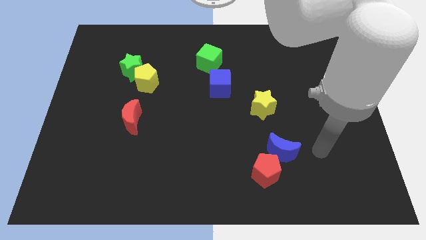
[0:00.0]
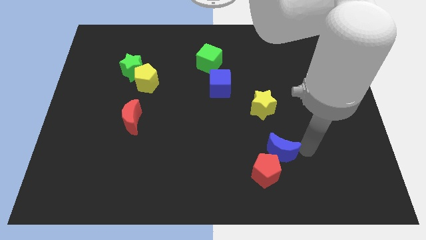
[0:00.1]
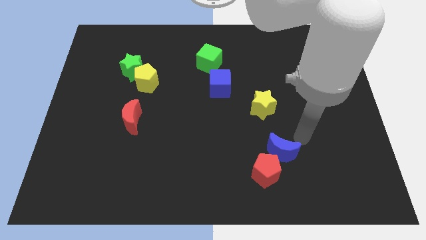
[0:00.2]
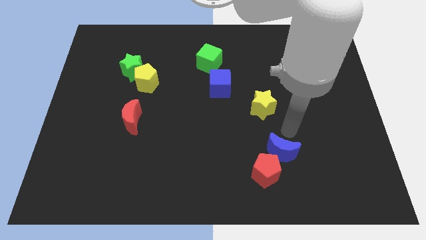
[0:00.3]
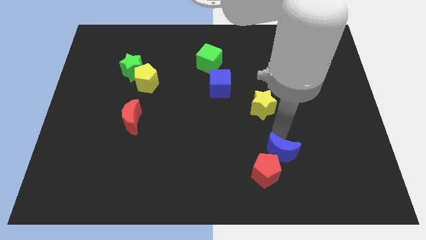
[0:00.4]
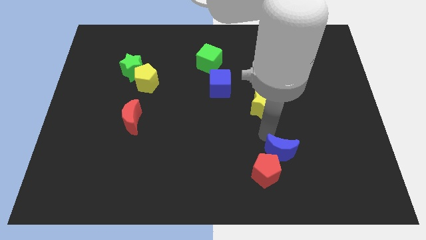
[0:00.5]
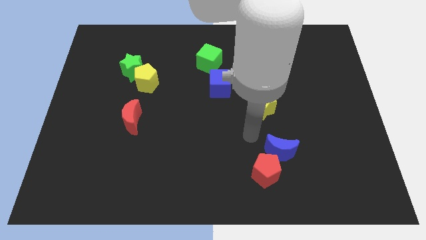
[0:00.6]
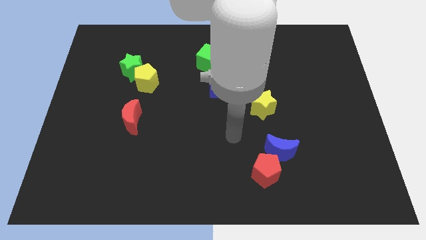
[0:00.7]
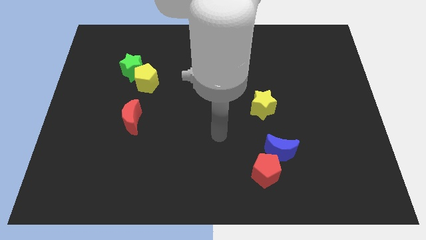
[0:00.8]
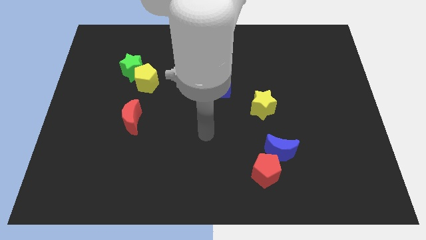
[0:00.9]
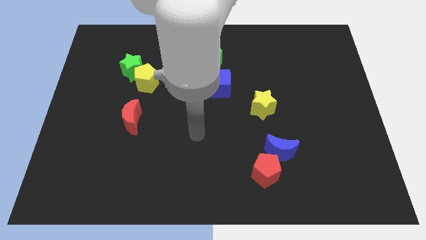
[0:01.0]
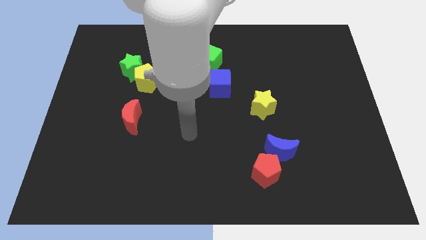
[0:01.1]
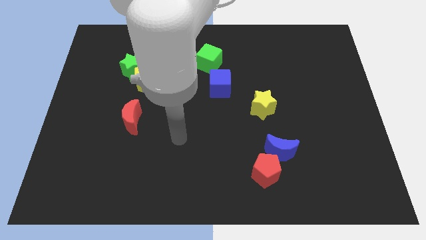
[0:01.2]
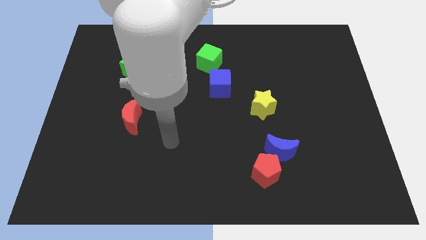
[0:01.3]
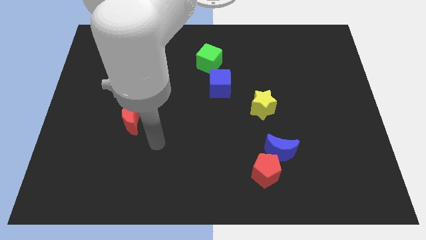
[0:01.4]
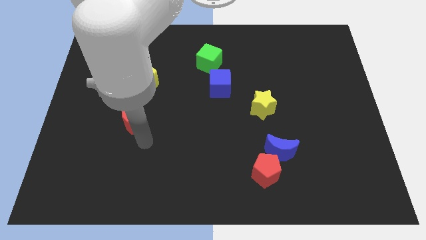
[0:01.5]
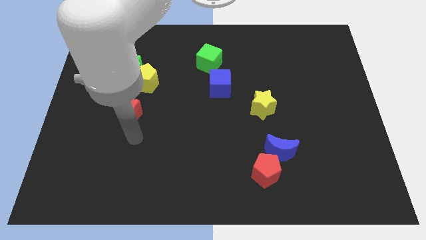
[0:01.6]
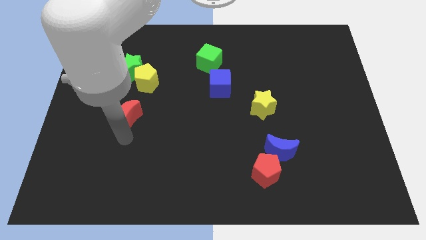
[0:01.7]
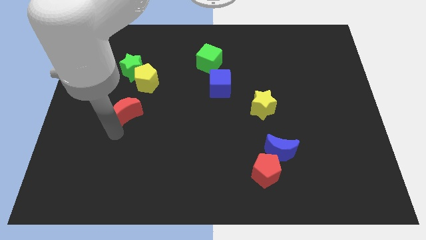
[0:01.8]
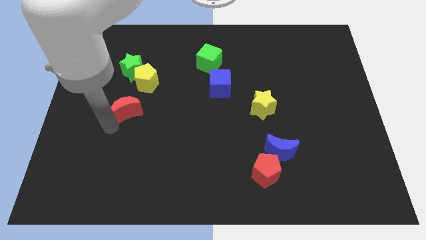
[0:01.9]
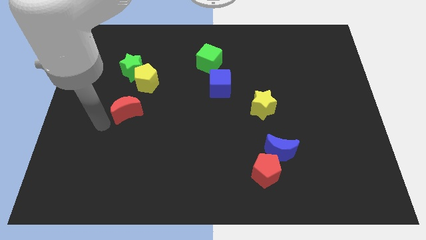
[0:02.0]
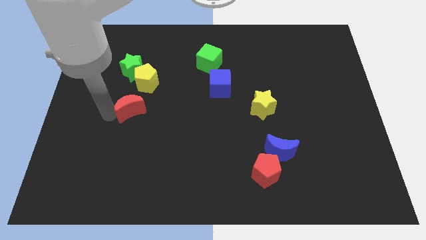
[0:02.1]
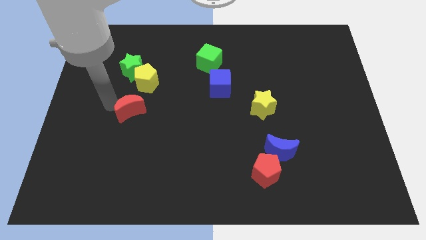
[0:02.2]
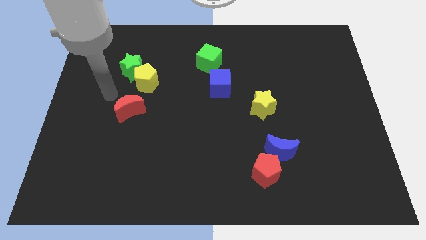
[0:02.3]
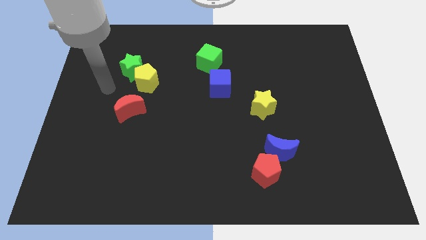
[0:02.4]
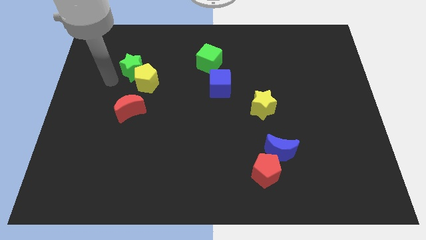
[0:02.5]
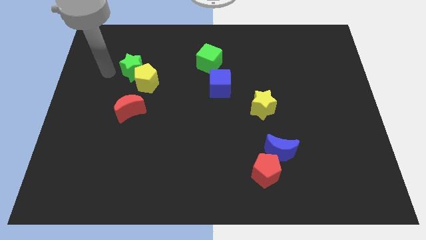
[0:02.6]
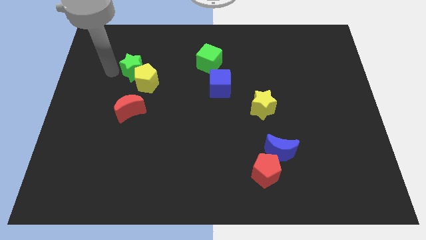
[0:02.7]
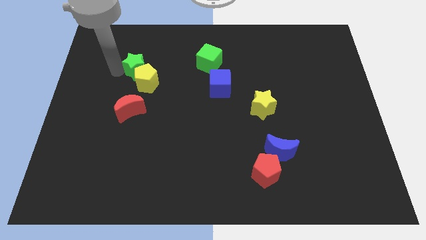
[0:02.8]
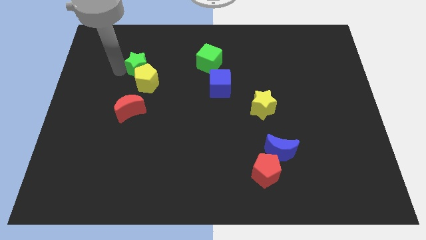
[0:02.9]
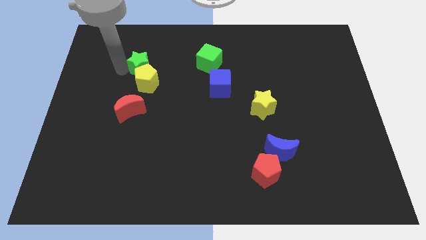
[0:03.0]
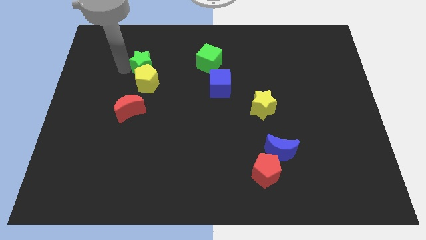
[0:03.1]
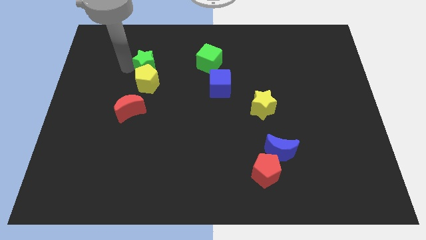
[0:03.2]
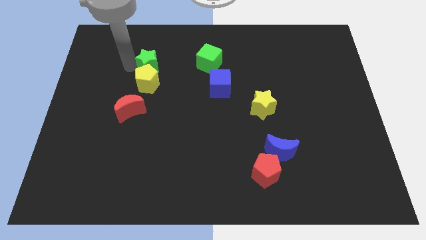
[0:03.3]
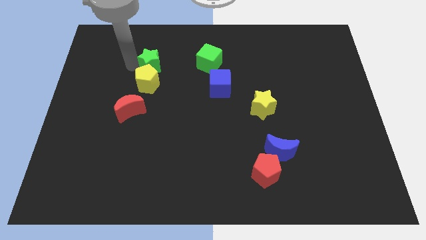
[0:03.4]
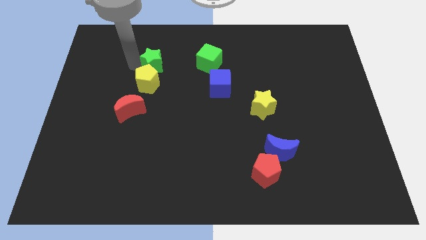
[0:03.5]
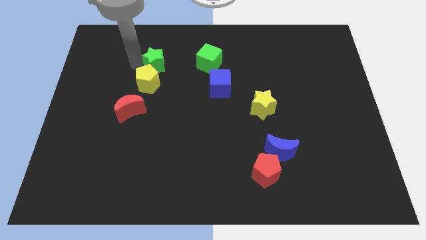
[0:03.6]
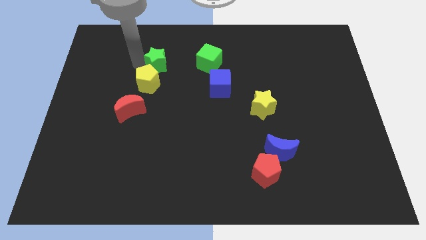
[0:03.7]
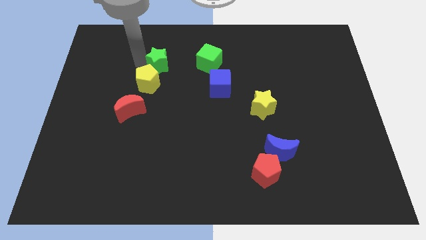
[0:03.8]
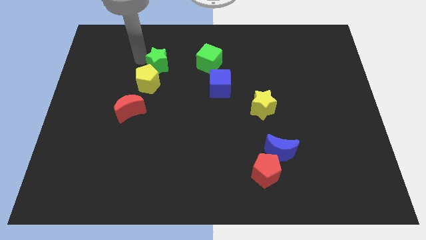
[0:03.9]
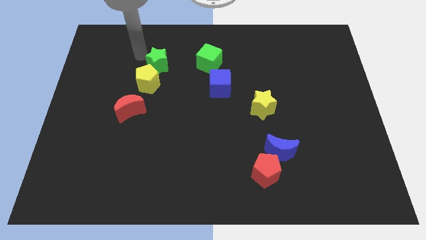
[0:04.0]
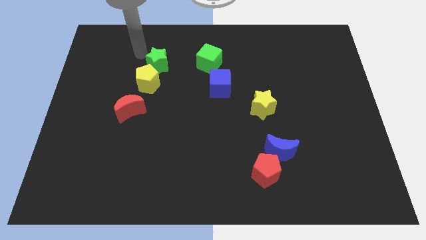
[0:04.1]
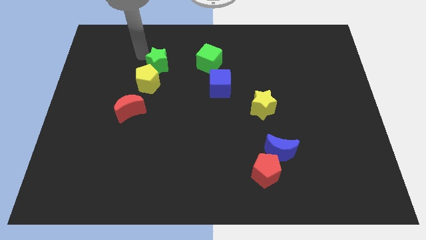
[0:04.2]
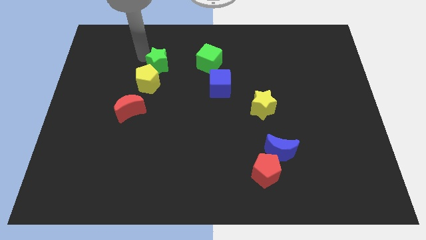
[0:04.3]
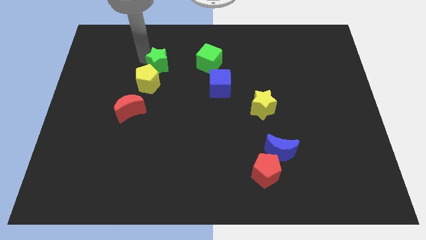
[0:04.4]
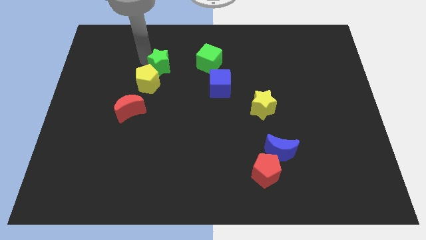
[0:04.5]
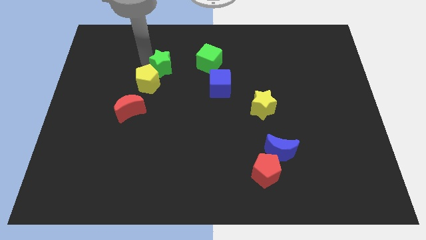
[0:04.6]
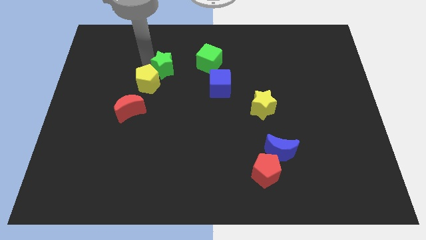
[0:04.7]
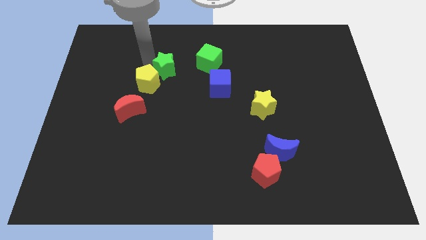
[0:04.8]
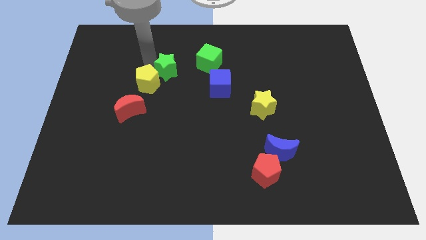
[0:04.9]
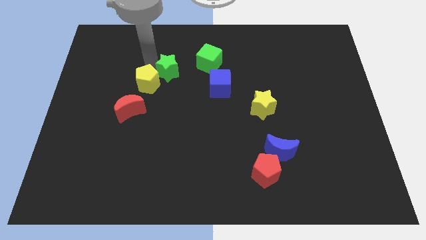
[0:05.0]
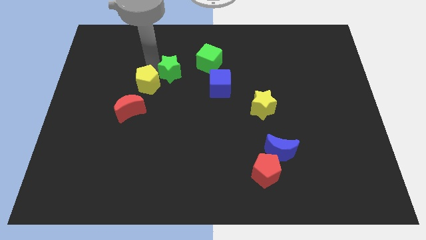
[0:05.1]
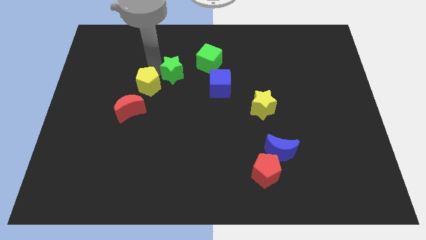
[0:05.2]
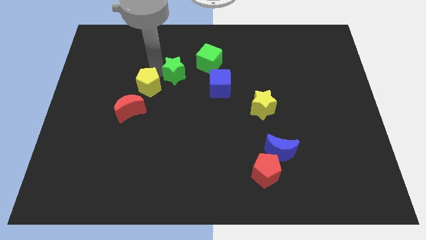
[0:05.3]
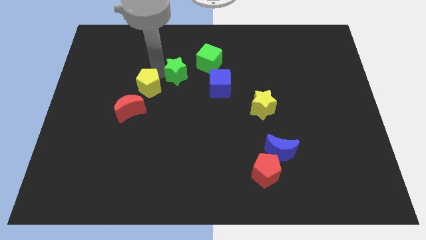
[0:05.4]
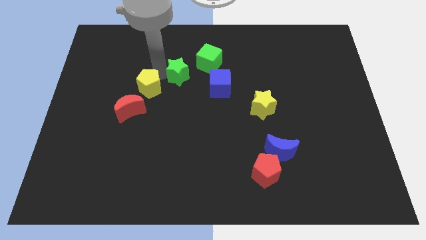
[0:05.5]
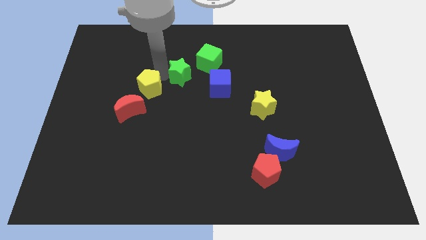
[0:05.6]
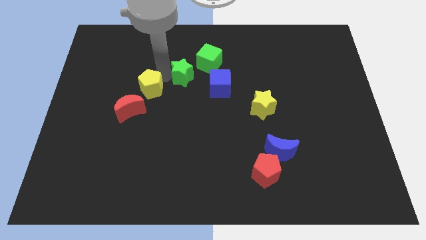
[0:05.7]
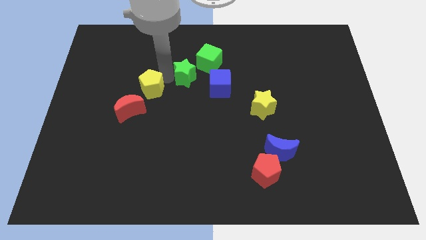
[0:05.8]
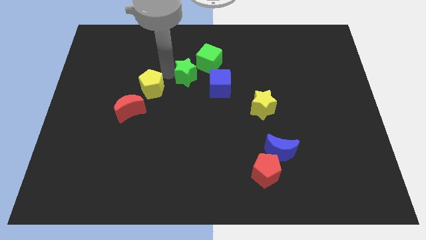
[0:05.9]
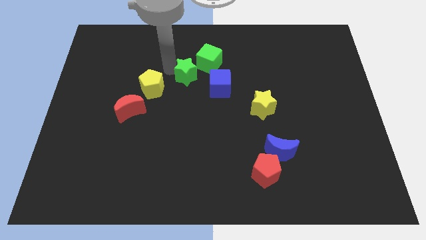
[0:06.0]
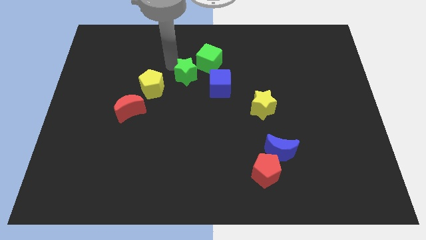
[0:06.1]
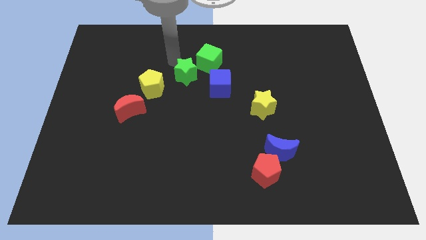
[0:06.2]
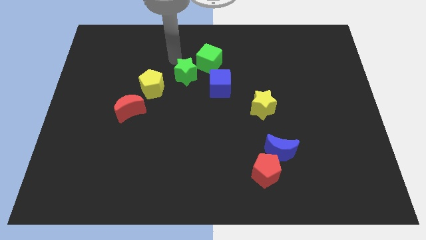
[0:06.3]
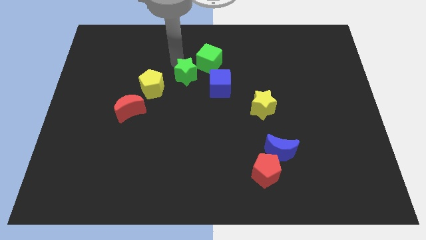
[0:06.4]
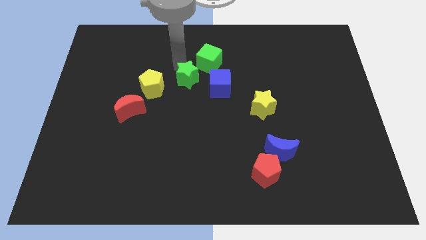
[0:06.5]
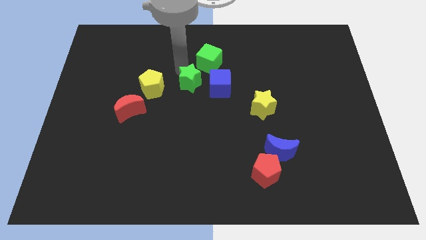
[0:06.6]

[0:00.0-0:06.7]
slide the green star to the bottom of the green cube

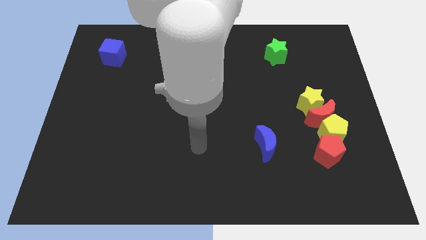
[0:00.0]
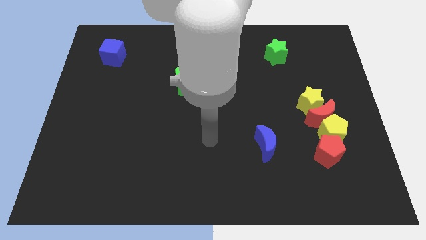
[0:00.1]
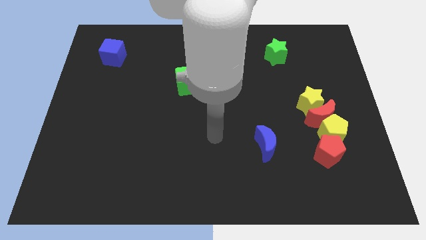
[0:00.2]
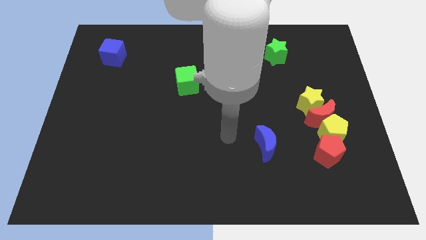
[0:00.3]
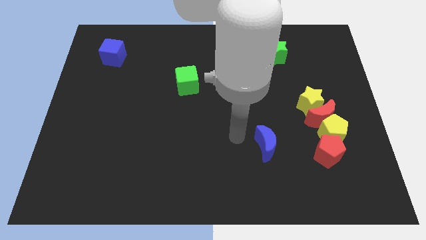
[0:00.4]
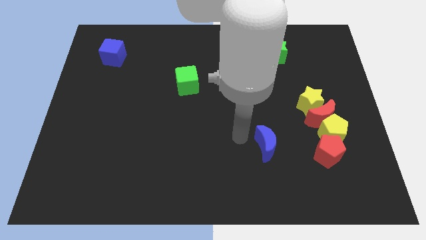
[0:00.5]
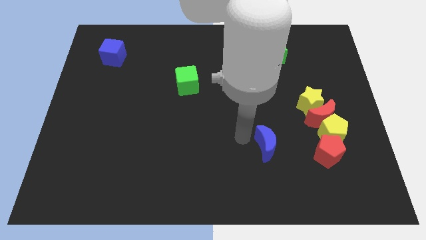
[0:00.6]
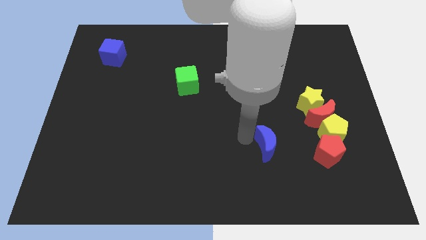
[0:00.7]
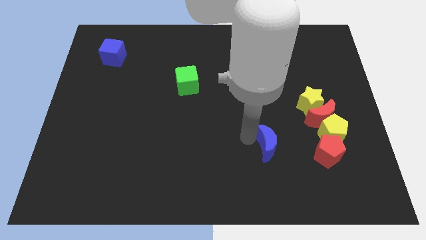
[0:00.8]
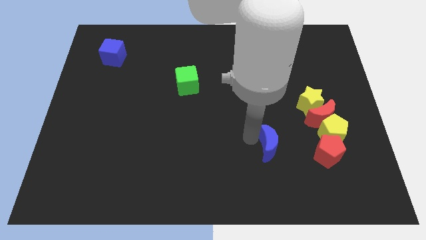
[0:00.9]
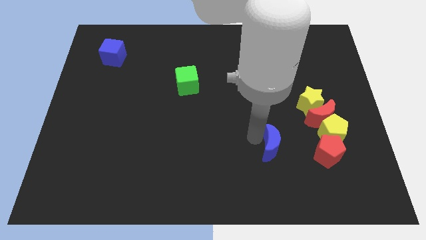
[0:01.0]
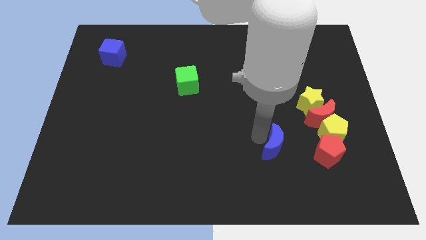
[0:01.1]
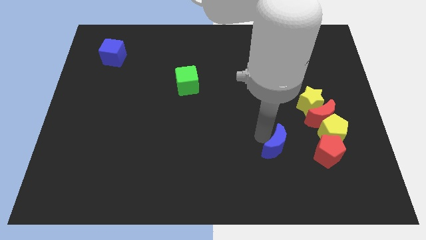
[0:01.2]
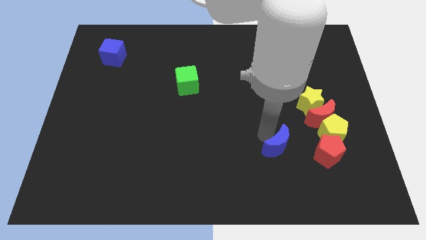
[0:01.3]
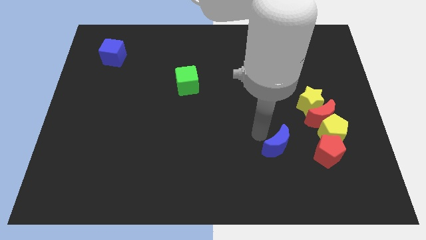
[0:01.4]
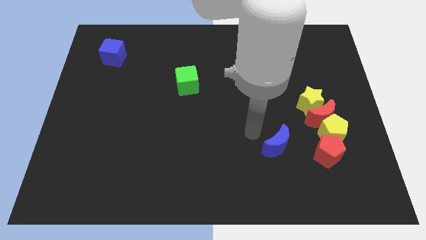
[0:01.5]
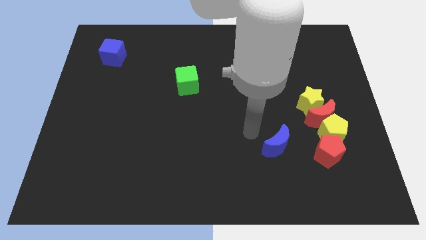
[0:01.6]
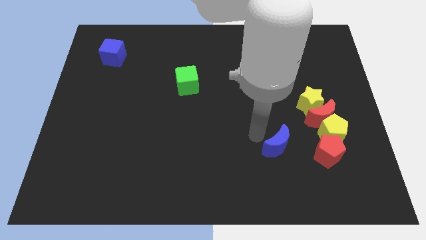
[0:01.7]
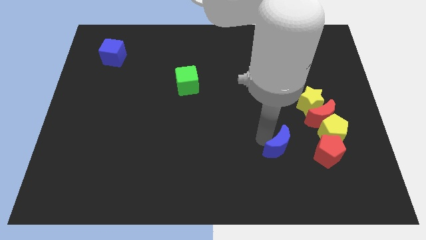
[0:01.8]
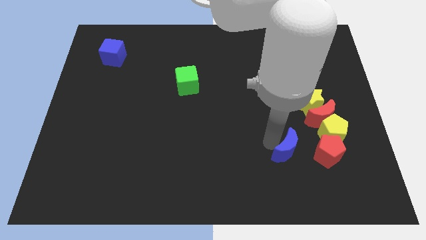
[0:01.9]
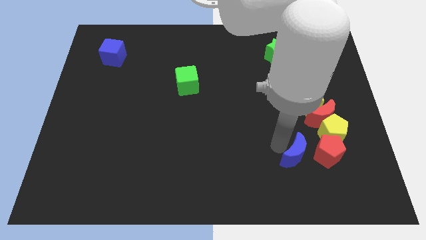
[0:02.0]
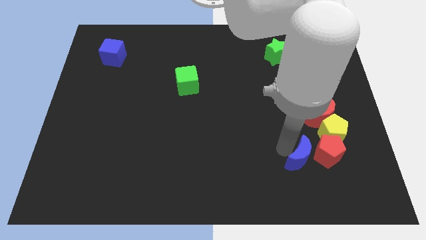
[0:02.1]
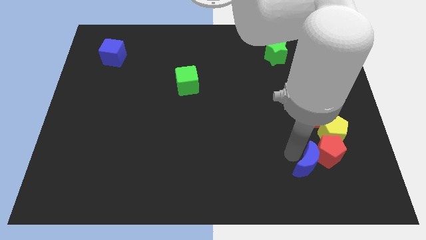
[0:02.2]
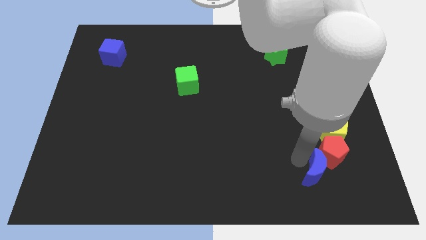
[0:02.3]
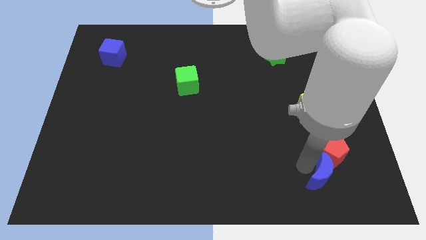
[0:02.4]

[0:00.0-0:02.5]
slide the blue moon to the bottom of the yellow pentagon
